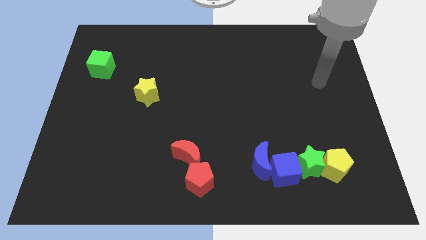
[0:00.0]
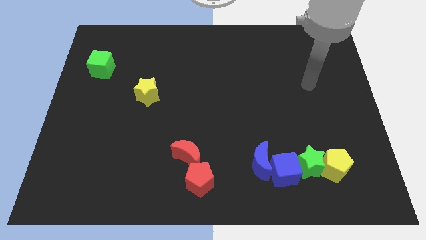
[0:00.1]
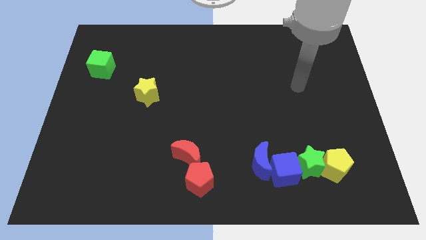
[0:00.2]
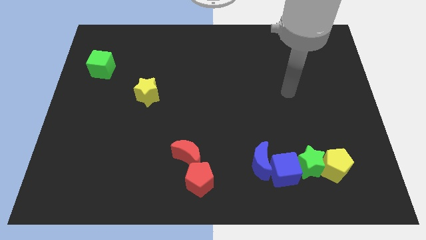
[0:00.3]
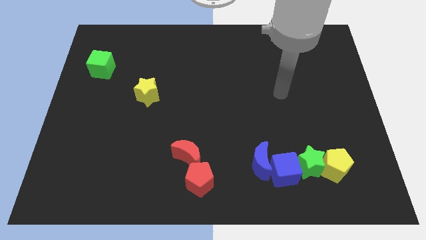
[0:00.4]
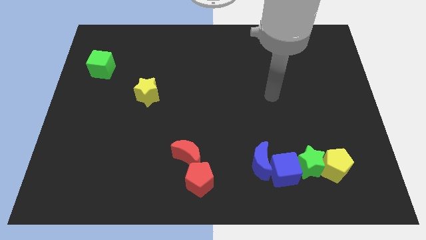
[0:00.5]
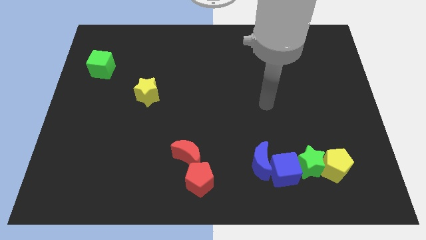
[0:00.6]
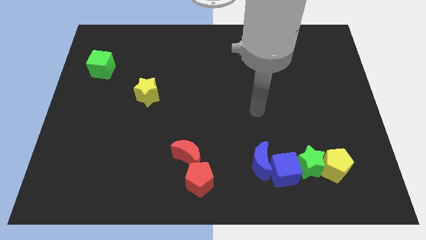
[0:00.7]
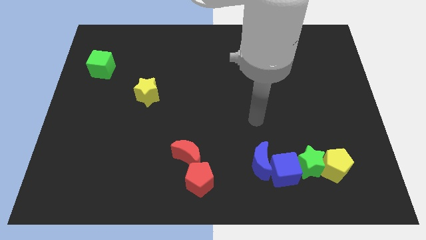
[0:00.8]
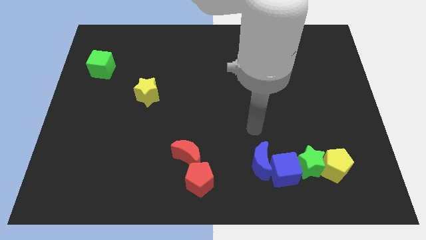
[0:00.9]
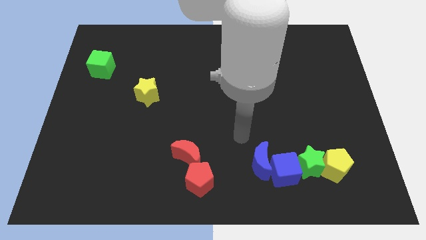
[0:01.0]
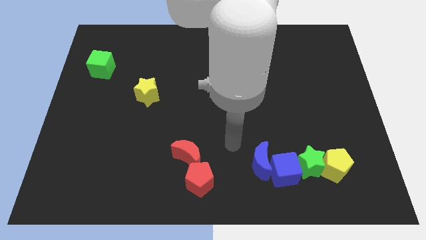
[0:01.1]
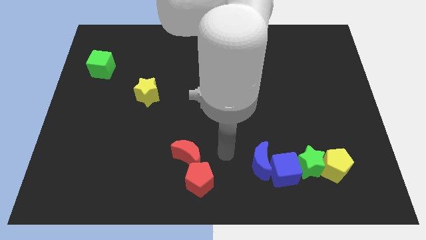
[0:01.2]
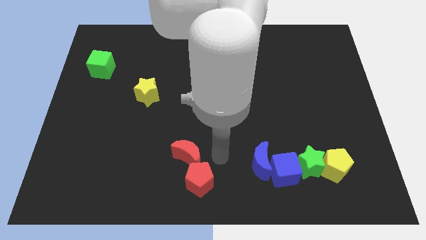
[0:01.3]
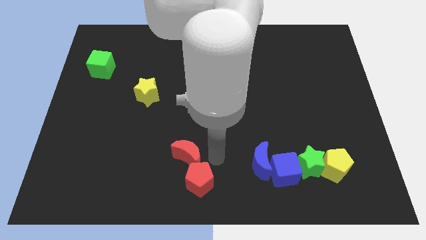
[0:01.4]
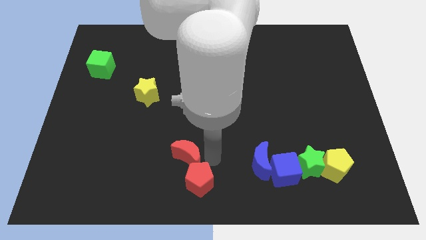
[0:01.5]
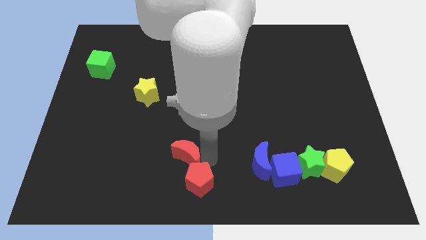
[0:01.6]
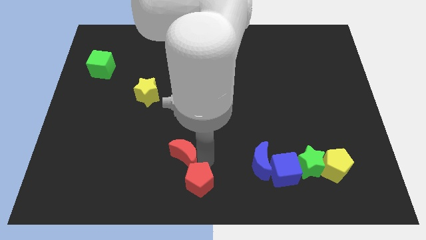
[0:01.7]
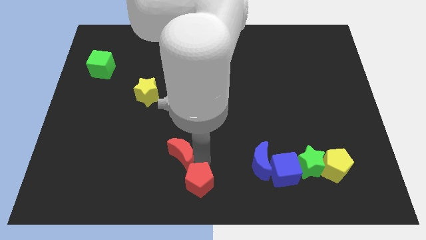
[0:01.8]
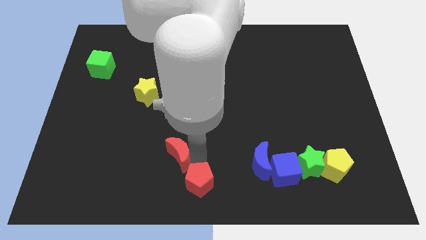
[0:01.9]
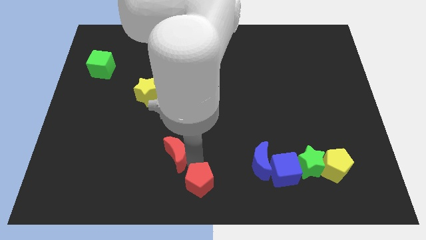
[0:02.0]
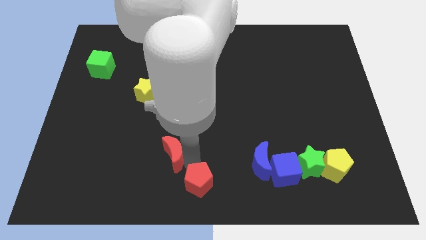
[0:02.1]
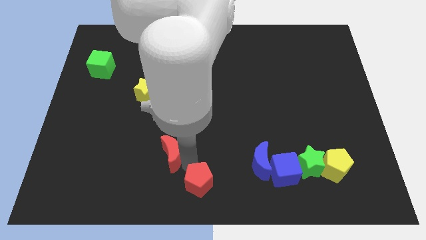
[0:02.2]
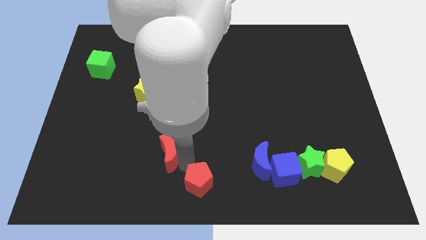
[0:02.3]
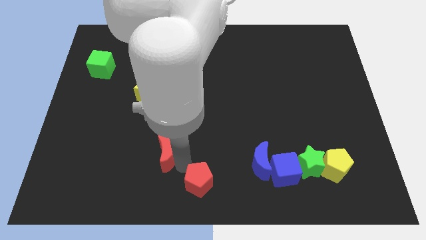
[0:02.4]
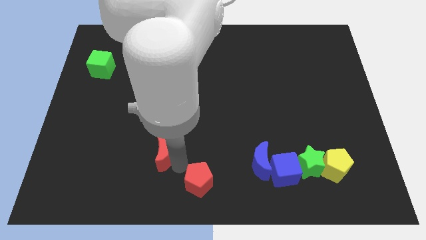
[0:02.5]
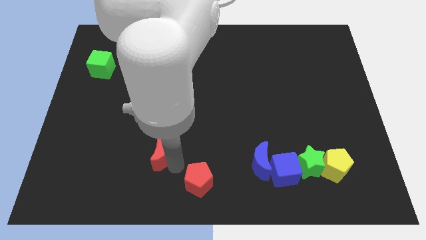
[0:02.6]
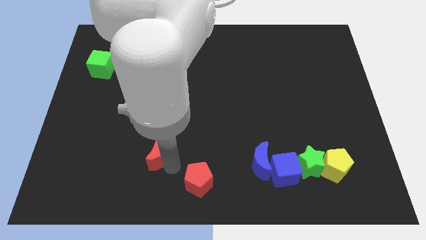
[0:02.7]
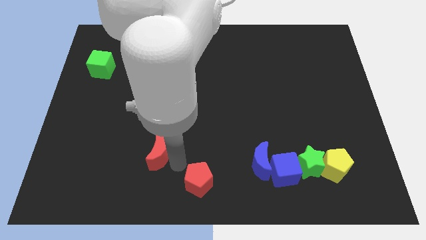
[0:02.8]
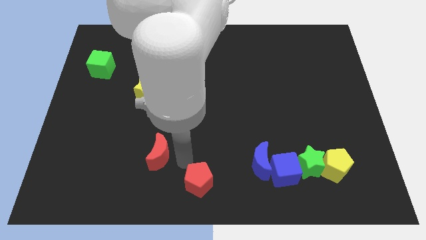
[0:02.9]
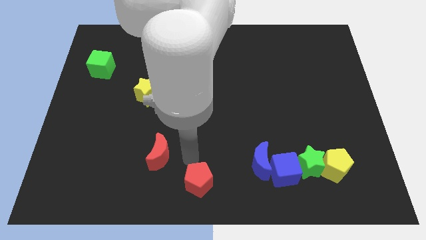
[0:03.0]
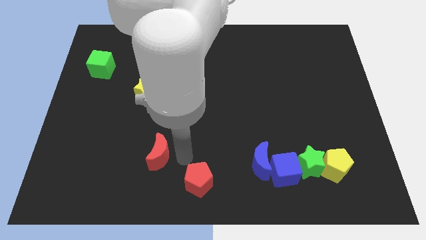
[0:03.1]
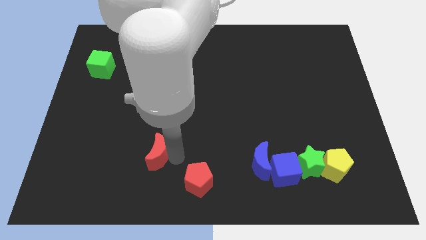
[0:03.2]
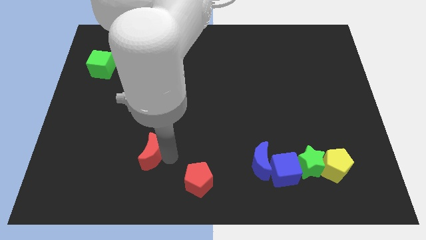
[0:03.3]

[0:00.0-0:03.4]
move the red moon to the left a bit

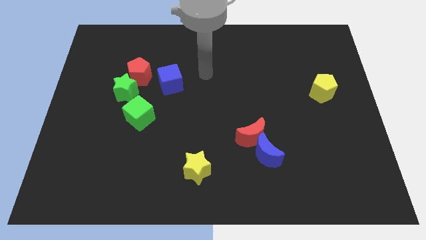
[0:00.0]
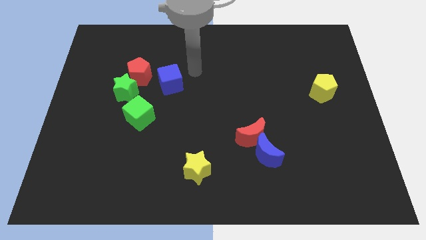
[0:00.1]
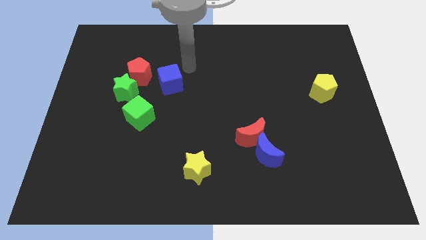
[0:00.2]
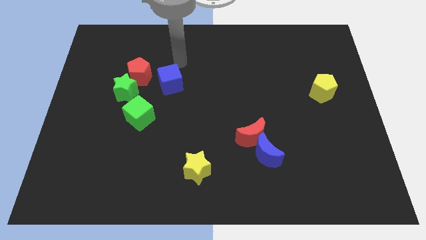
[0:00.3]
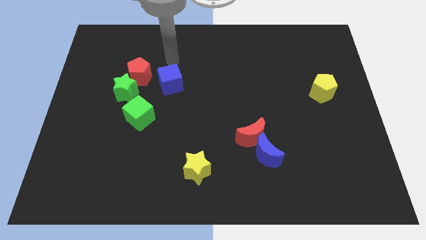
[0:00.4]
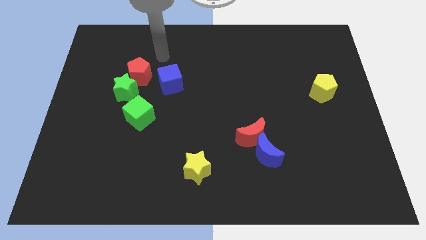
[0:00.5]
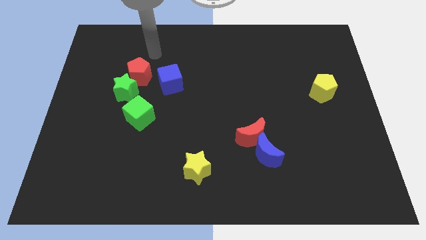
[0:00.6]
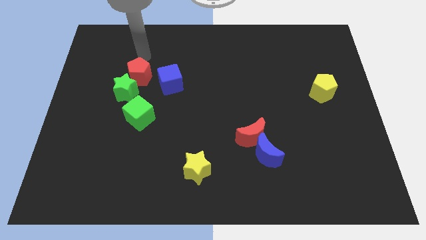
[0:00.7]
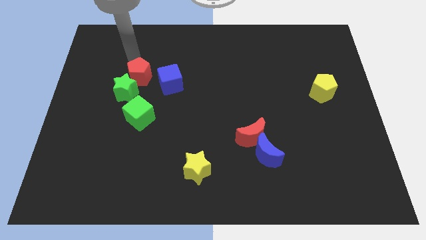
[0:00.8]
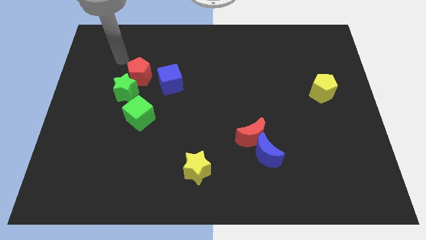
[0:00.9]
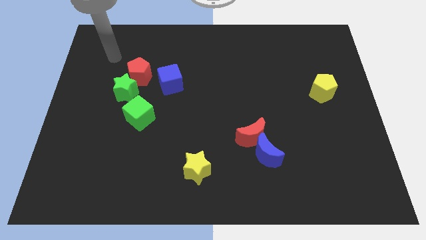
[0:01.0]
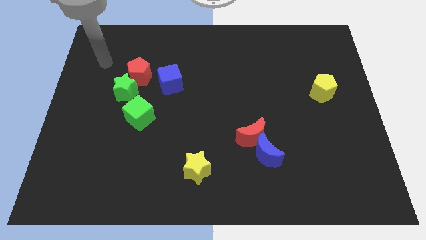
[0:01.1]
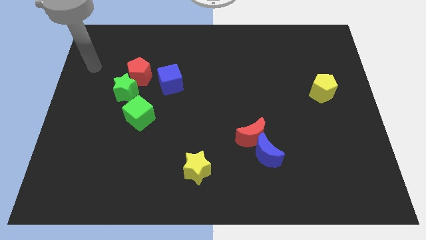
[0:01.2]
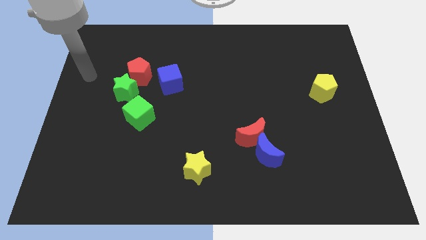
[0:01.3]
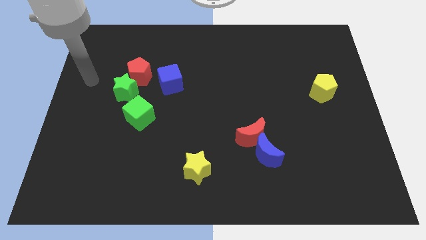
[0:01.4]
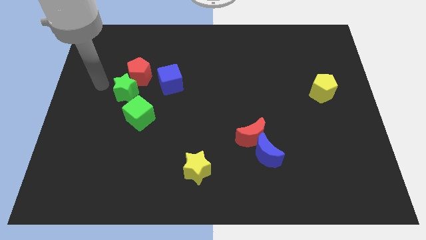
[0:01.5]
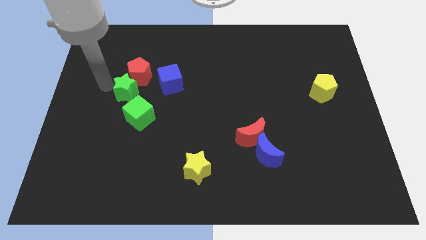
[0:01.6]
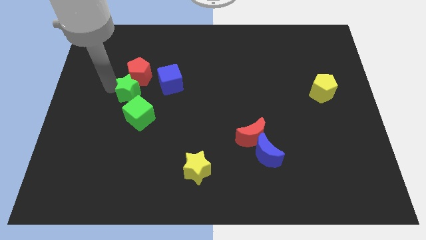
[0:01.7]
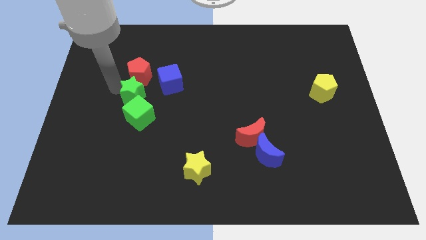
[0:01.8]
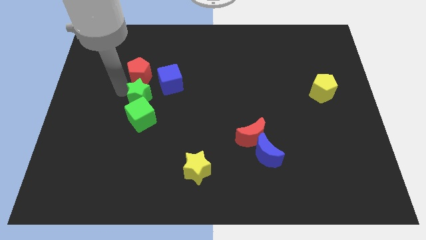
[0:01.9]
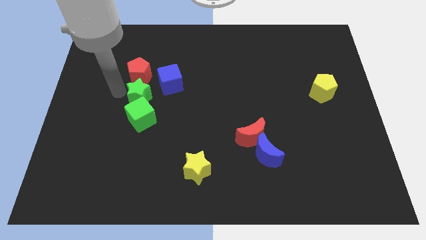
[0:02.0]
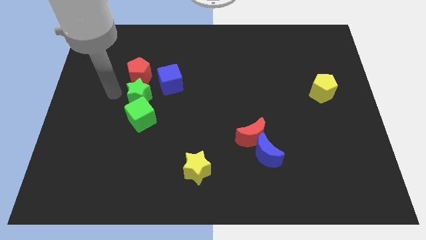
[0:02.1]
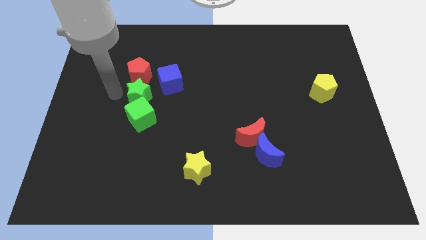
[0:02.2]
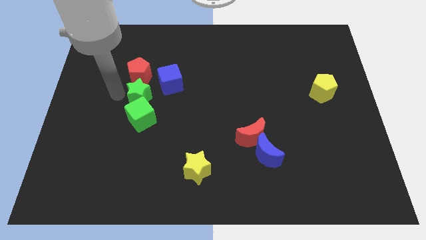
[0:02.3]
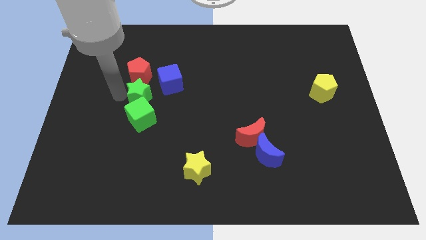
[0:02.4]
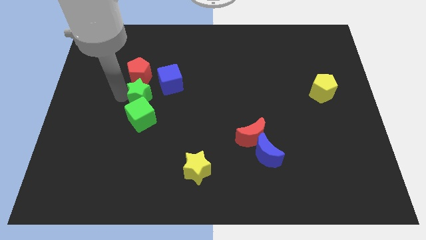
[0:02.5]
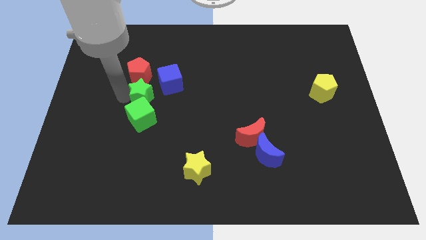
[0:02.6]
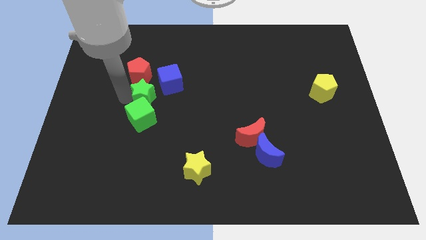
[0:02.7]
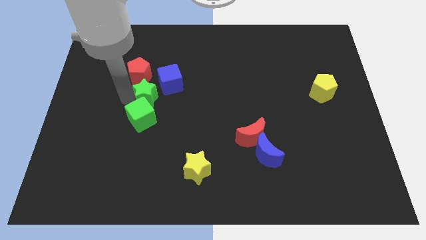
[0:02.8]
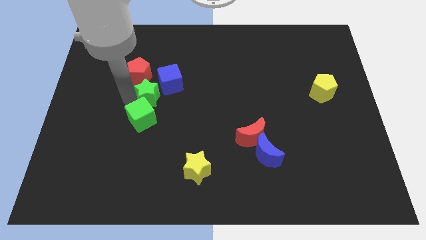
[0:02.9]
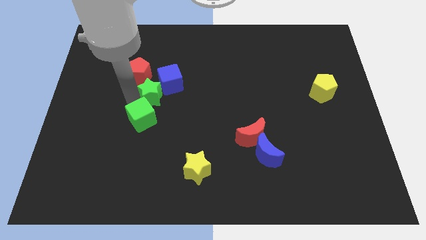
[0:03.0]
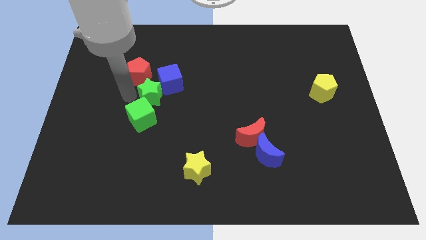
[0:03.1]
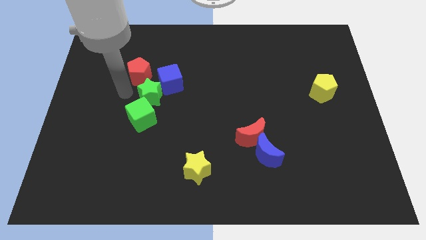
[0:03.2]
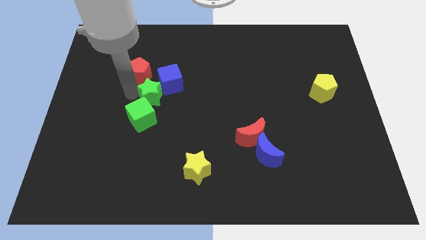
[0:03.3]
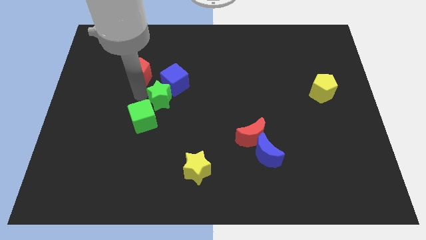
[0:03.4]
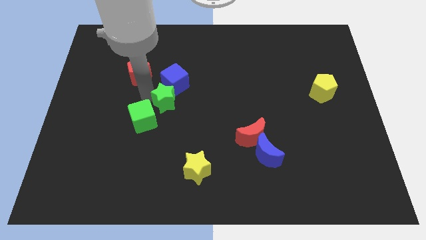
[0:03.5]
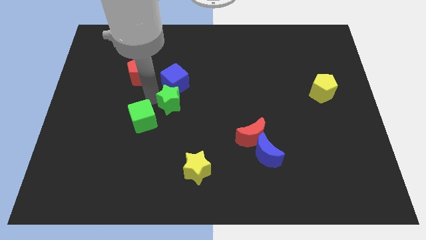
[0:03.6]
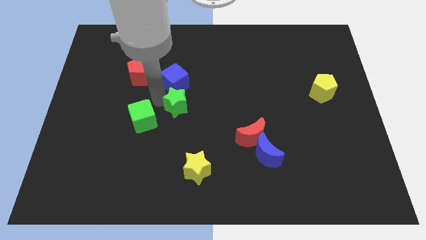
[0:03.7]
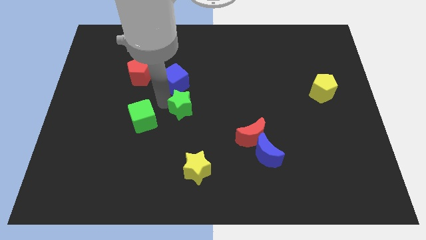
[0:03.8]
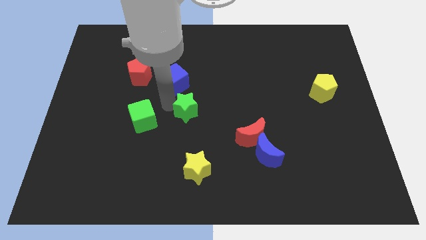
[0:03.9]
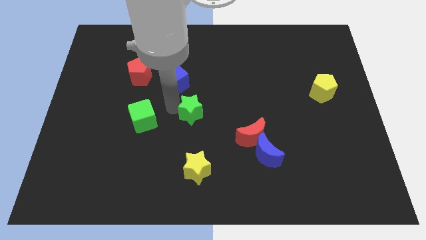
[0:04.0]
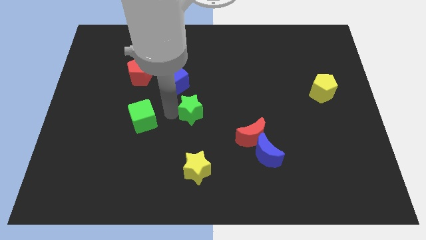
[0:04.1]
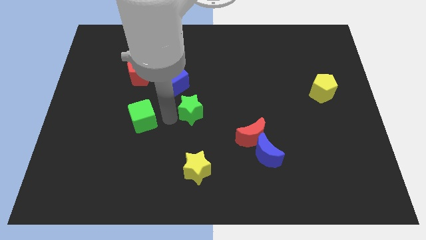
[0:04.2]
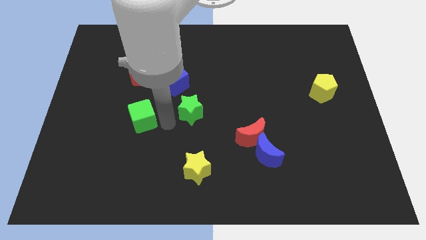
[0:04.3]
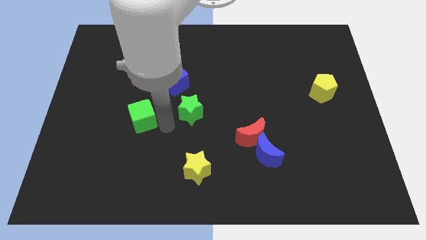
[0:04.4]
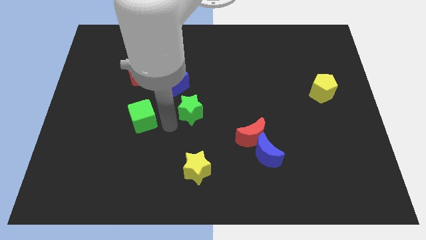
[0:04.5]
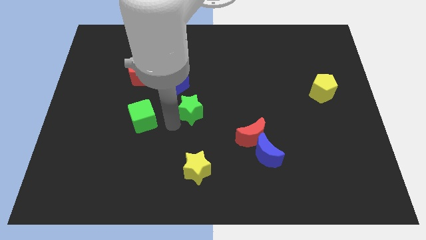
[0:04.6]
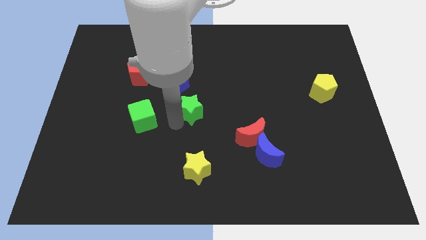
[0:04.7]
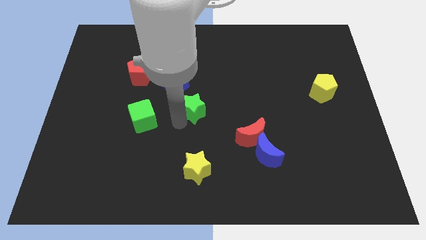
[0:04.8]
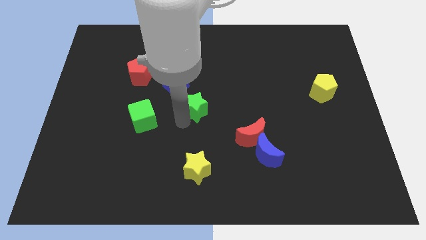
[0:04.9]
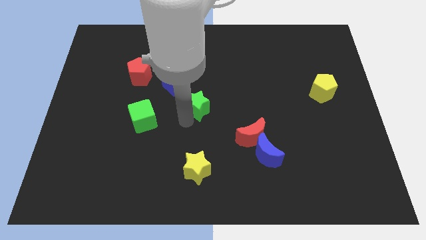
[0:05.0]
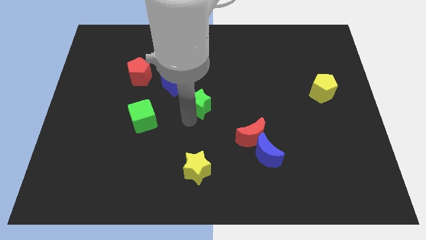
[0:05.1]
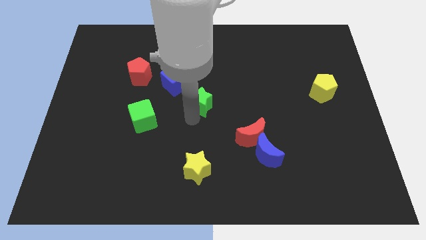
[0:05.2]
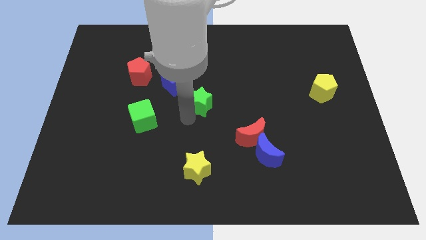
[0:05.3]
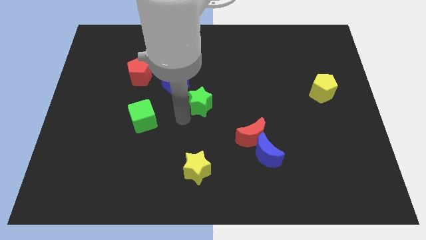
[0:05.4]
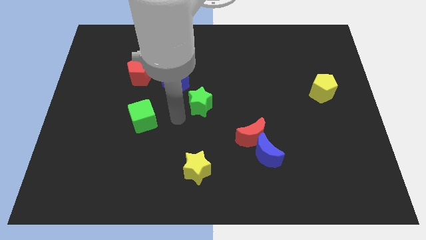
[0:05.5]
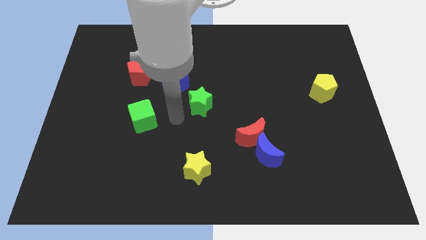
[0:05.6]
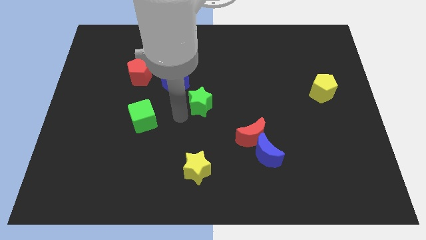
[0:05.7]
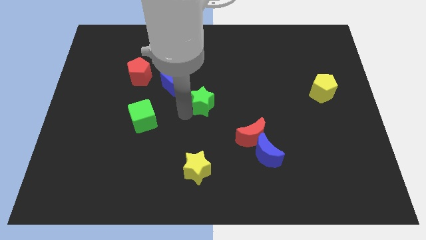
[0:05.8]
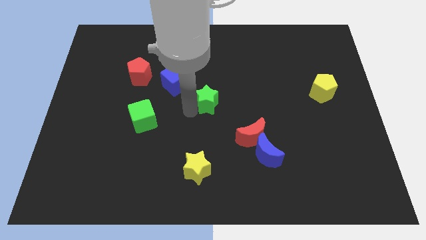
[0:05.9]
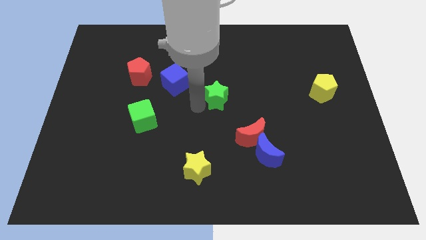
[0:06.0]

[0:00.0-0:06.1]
slide the green star to the right
